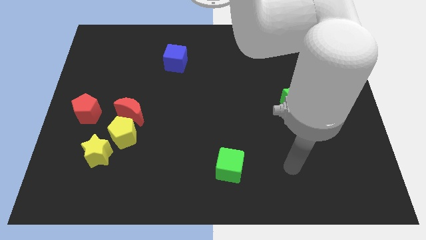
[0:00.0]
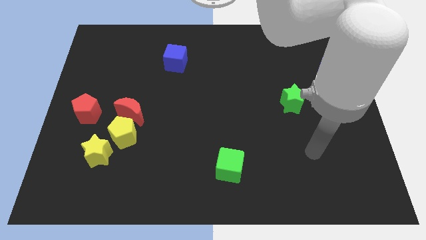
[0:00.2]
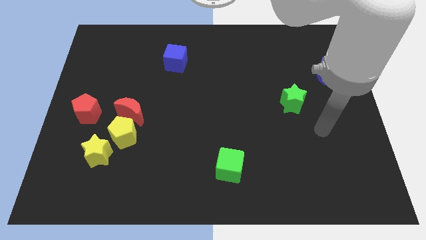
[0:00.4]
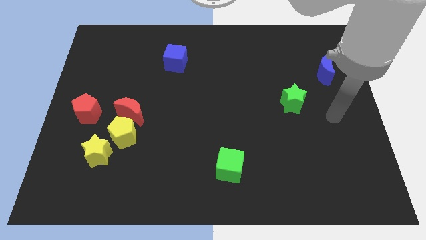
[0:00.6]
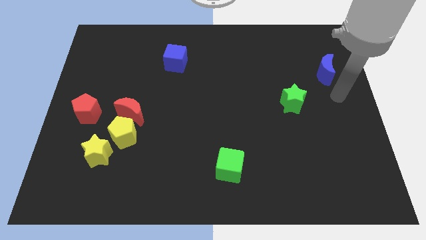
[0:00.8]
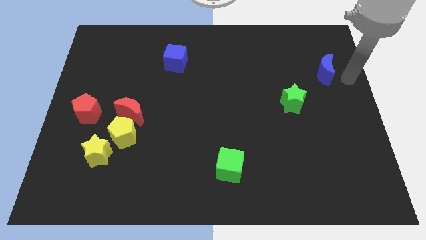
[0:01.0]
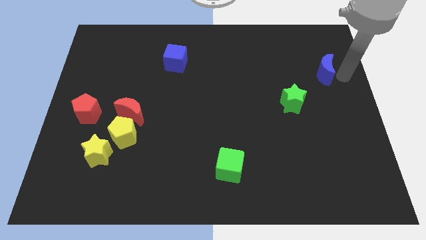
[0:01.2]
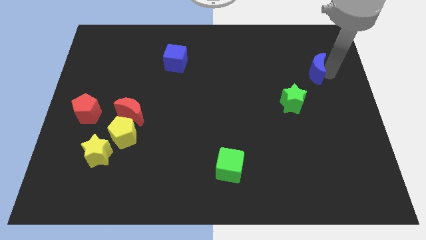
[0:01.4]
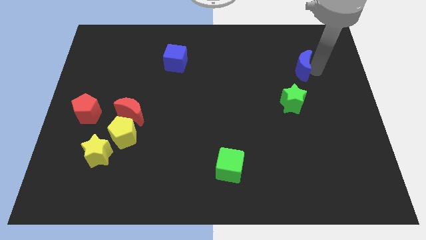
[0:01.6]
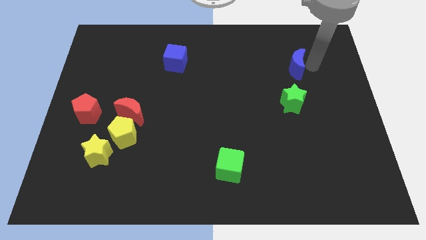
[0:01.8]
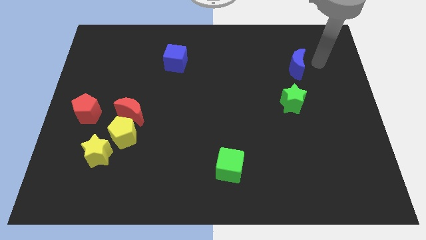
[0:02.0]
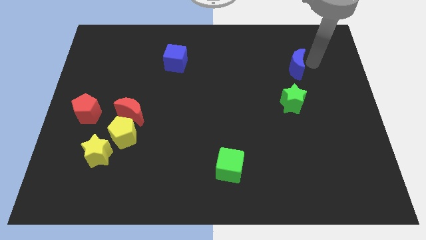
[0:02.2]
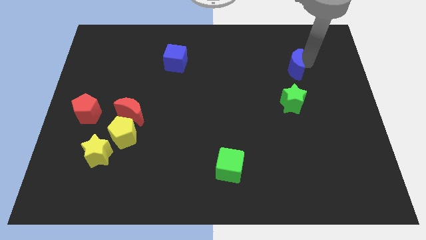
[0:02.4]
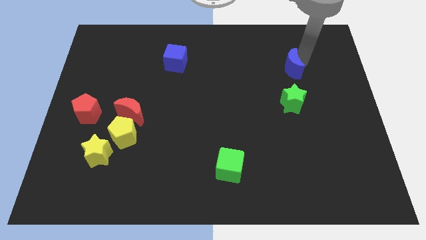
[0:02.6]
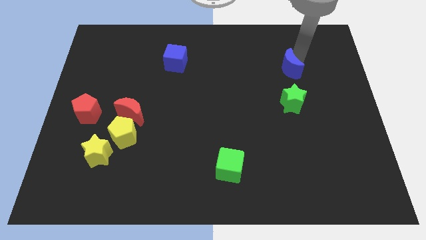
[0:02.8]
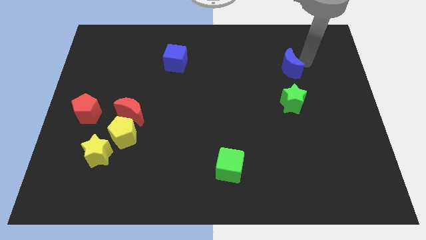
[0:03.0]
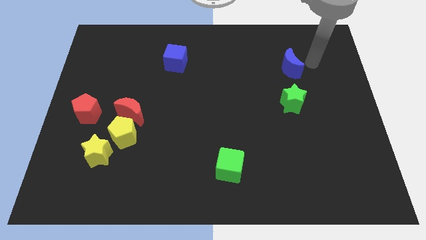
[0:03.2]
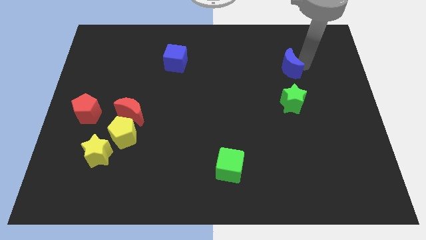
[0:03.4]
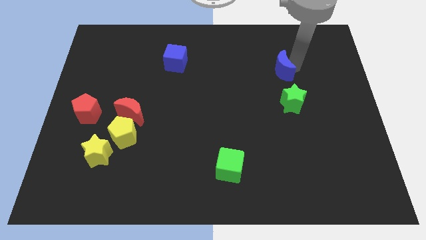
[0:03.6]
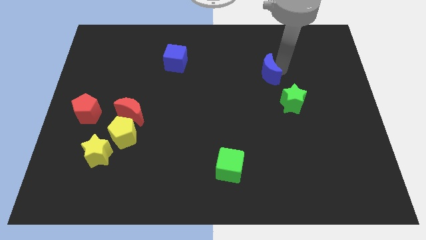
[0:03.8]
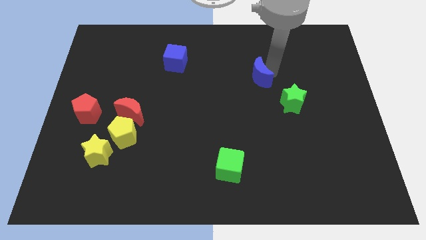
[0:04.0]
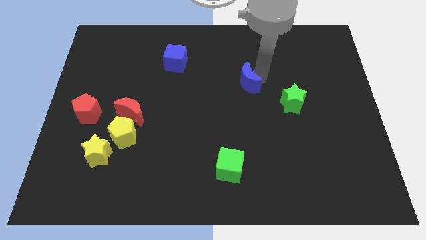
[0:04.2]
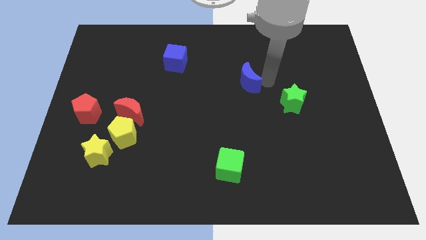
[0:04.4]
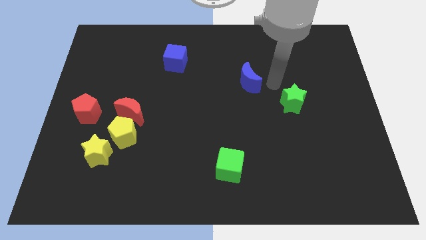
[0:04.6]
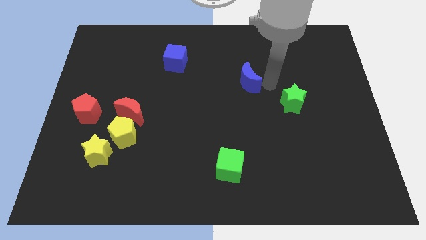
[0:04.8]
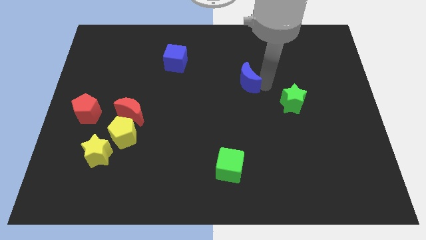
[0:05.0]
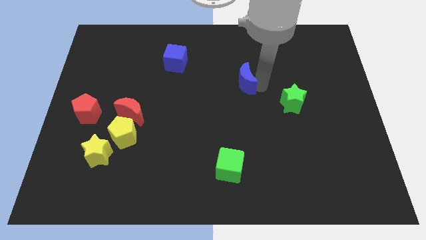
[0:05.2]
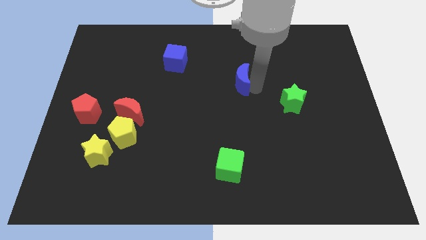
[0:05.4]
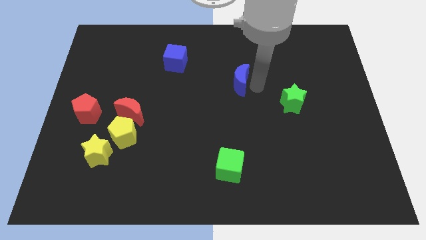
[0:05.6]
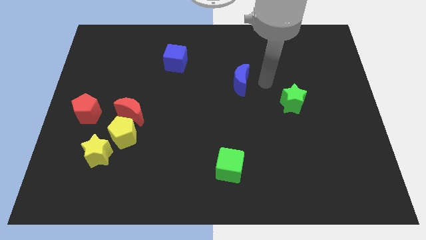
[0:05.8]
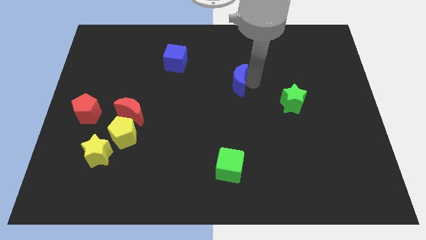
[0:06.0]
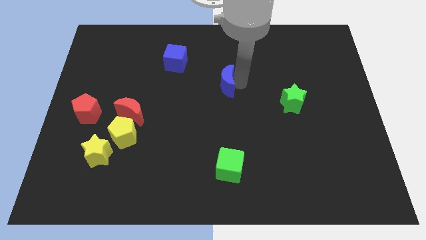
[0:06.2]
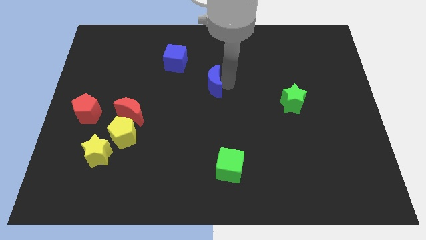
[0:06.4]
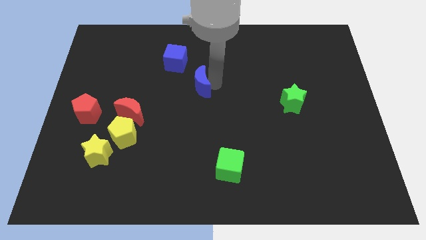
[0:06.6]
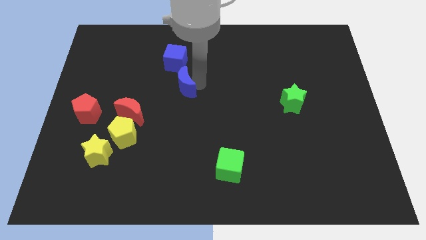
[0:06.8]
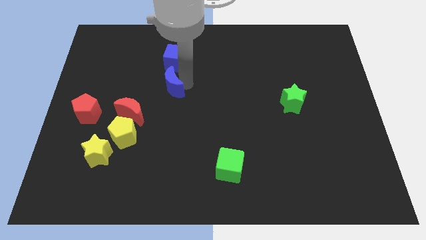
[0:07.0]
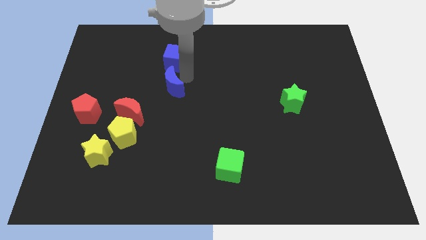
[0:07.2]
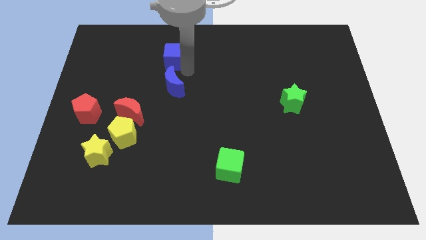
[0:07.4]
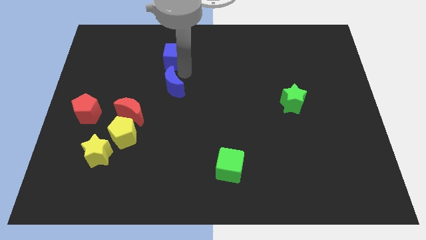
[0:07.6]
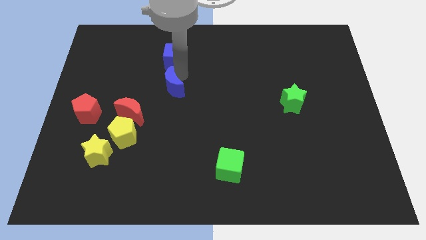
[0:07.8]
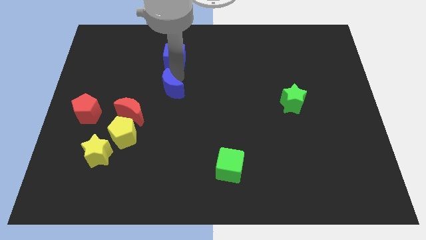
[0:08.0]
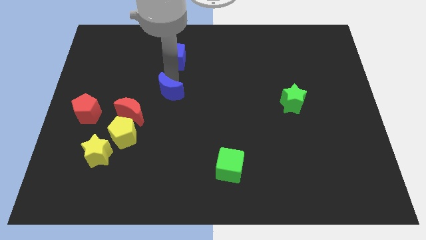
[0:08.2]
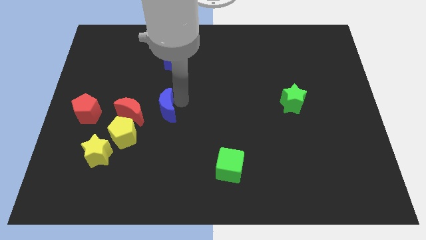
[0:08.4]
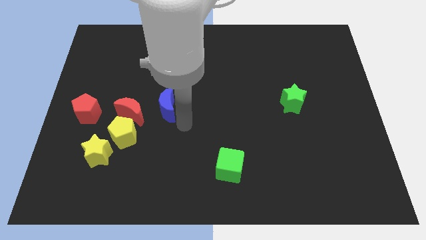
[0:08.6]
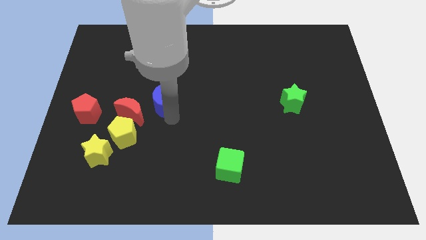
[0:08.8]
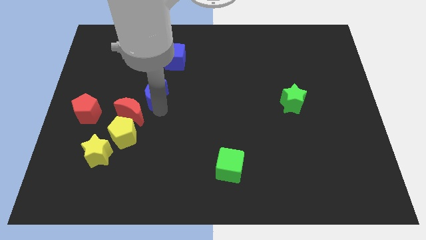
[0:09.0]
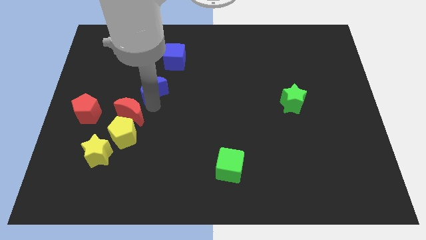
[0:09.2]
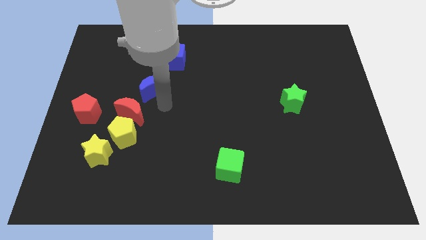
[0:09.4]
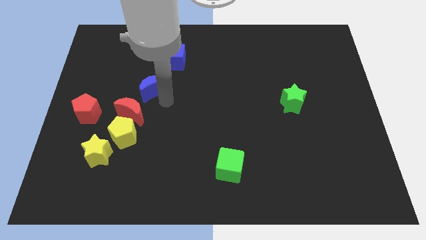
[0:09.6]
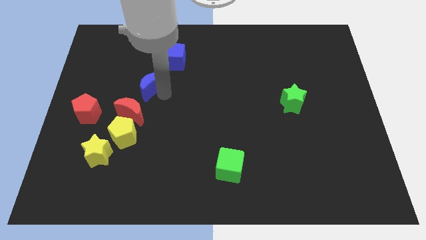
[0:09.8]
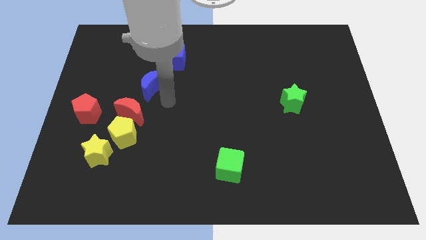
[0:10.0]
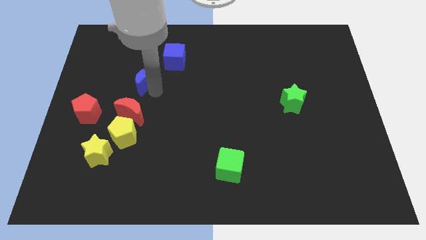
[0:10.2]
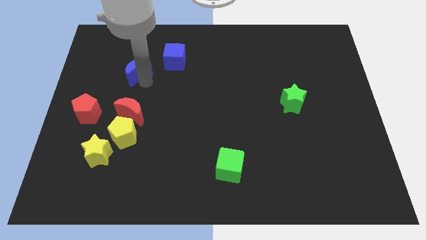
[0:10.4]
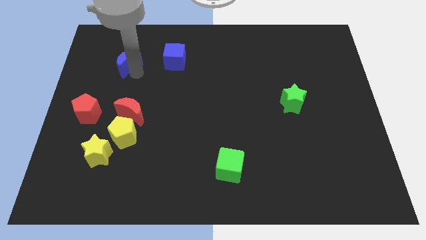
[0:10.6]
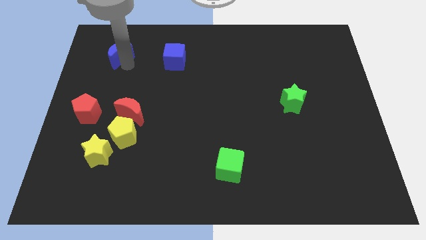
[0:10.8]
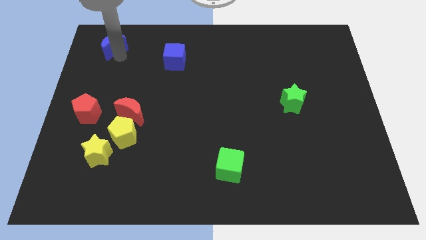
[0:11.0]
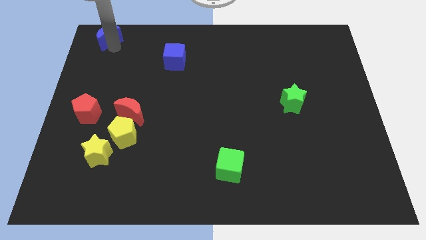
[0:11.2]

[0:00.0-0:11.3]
put the blue moon to the top left
